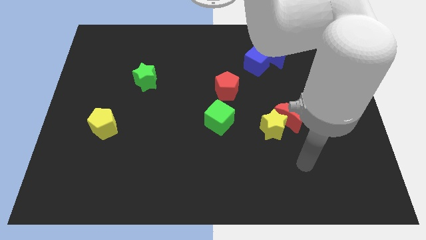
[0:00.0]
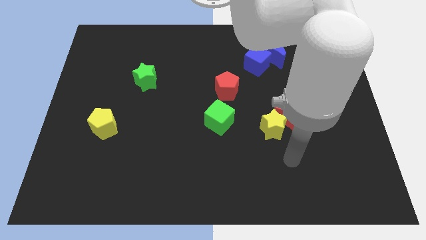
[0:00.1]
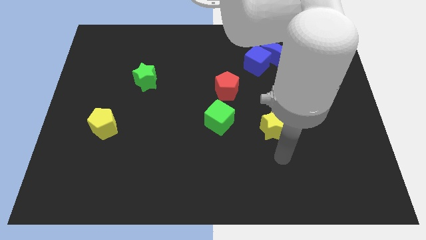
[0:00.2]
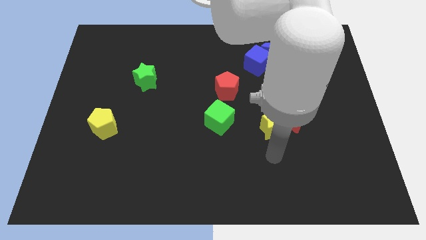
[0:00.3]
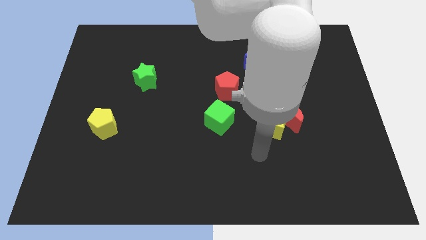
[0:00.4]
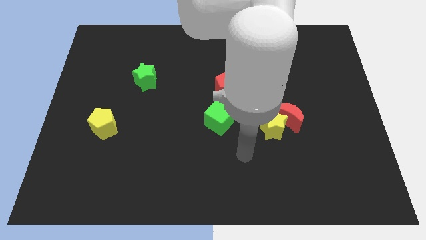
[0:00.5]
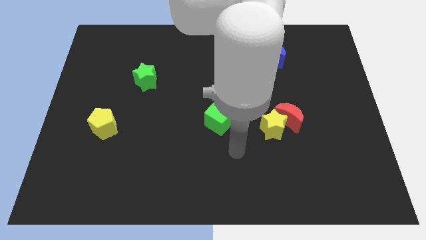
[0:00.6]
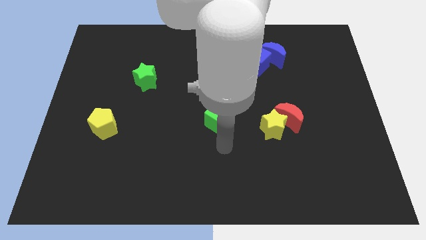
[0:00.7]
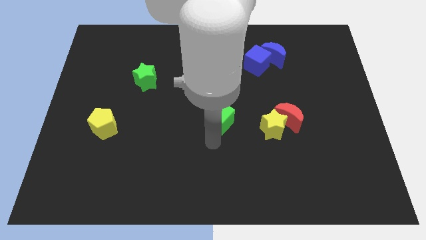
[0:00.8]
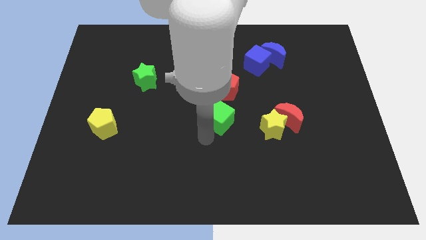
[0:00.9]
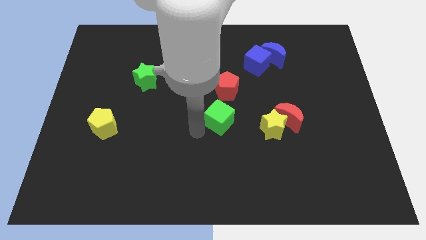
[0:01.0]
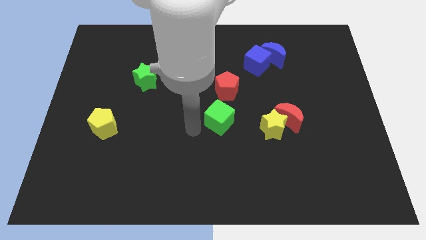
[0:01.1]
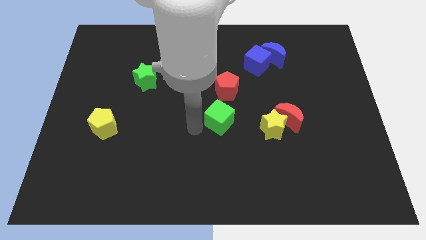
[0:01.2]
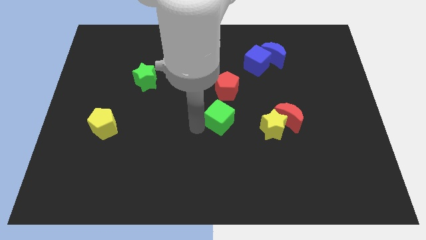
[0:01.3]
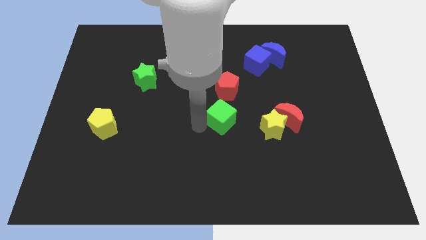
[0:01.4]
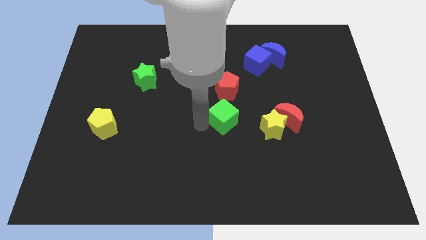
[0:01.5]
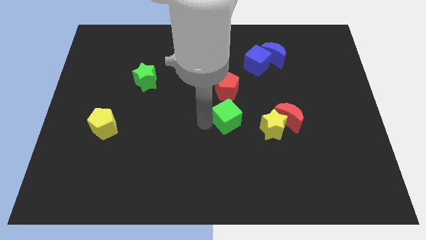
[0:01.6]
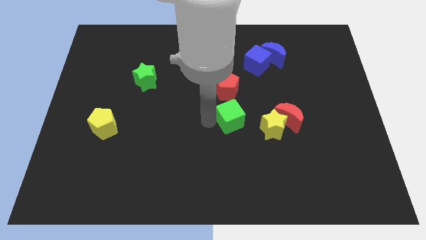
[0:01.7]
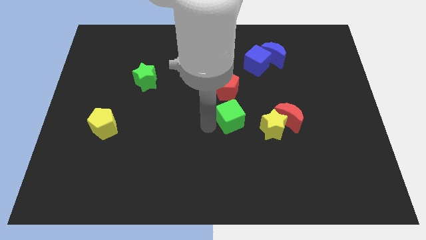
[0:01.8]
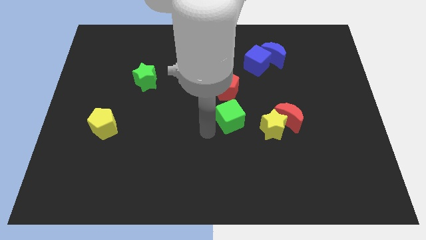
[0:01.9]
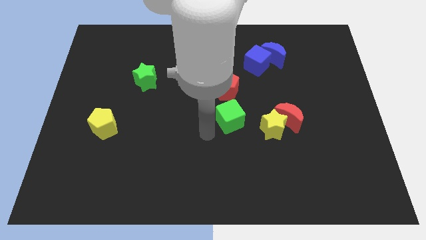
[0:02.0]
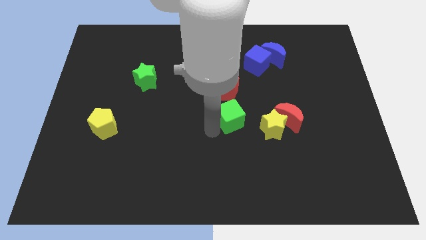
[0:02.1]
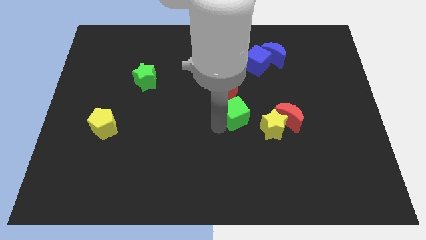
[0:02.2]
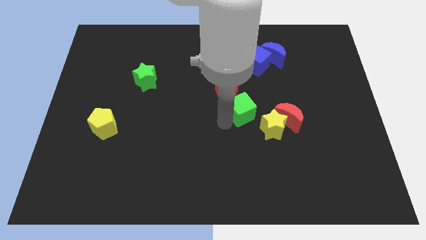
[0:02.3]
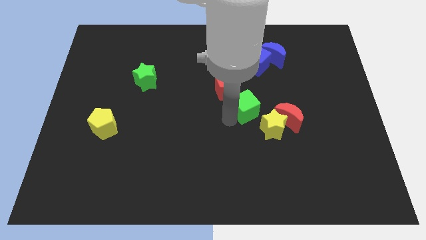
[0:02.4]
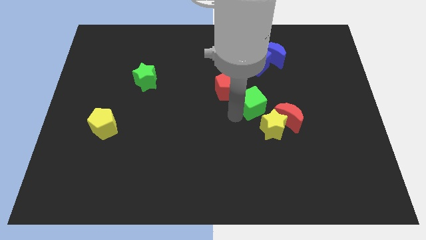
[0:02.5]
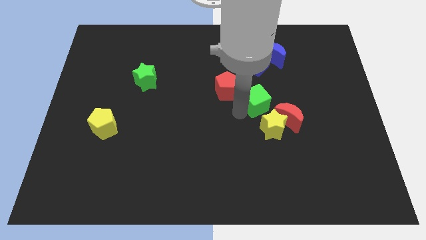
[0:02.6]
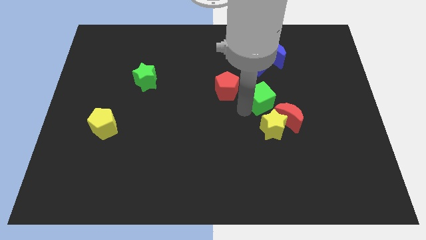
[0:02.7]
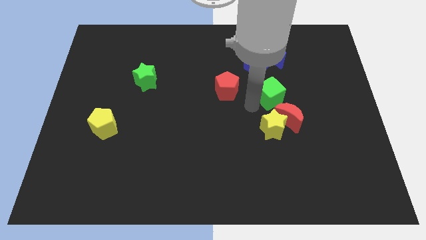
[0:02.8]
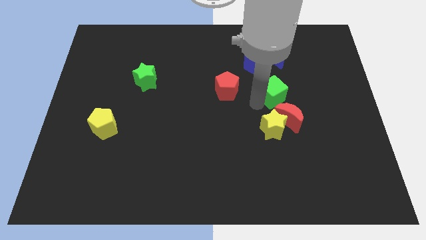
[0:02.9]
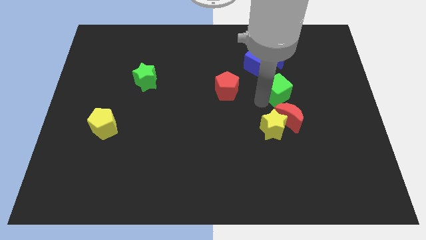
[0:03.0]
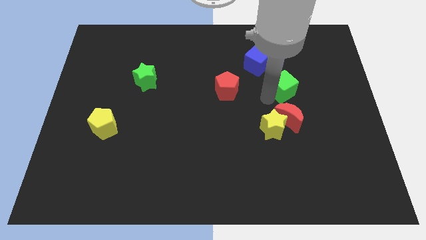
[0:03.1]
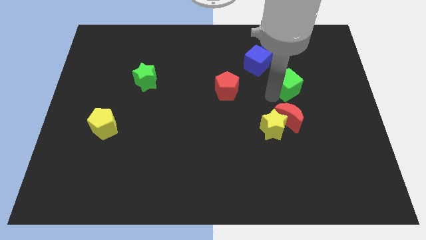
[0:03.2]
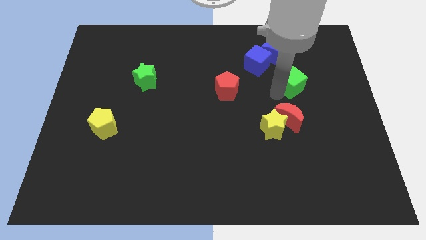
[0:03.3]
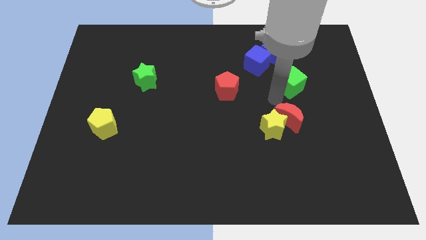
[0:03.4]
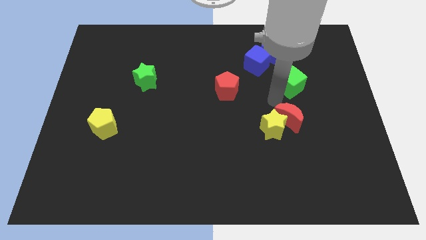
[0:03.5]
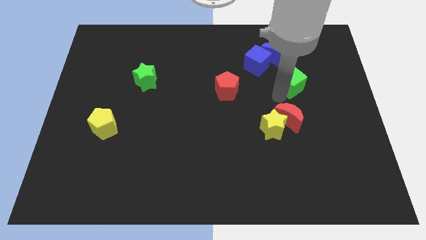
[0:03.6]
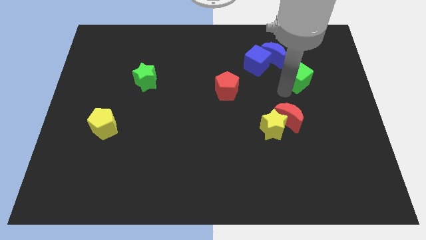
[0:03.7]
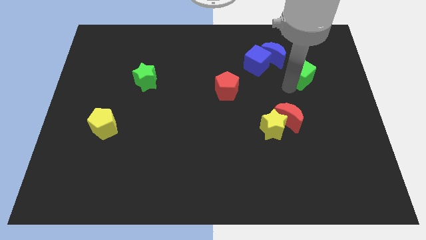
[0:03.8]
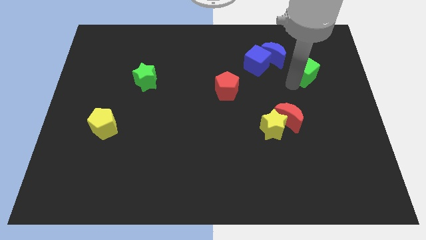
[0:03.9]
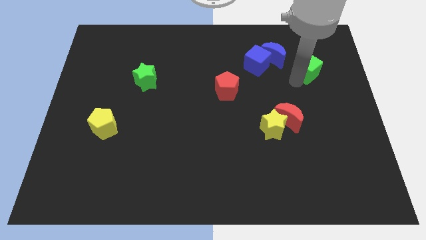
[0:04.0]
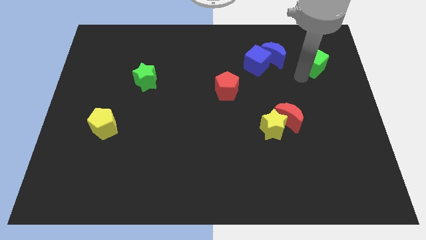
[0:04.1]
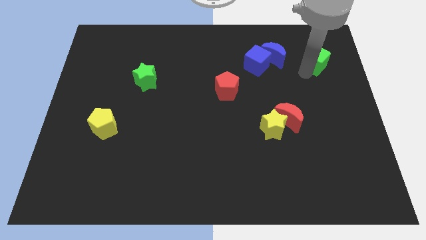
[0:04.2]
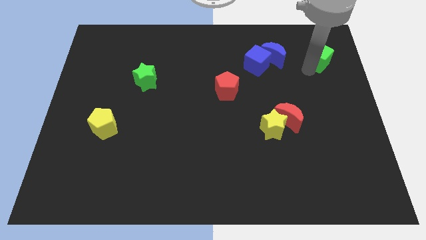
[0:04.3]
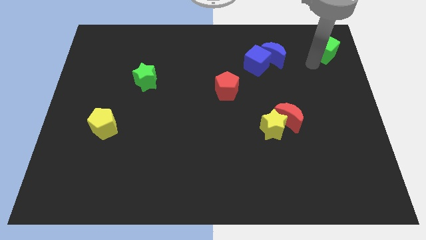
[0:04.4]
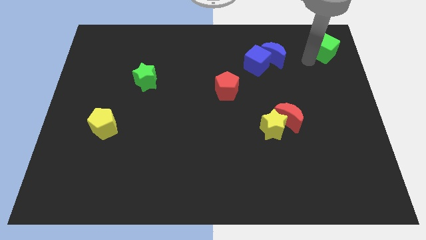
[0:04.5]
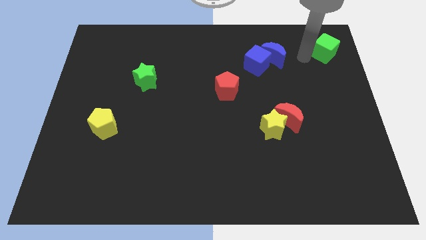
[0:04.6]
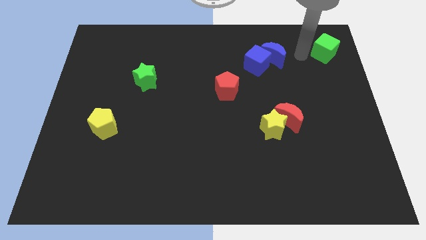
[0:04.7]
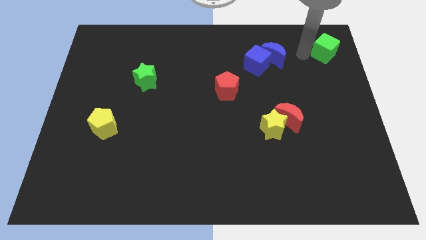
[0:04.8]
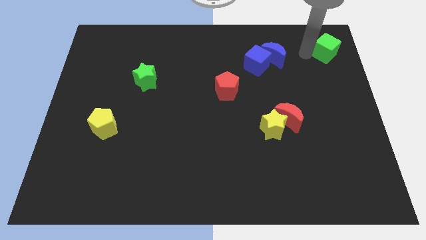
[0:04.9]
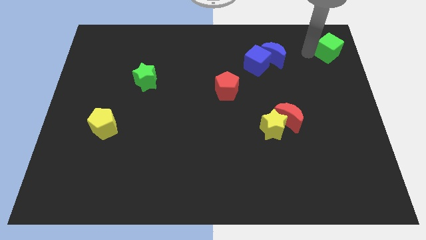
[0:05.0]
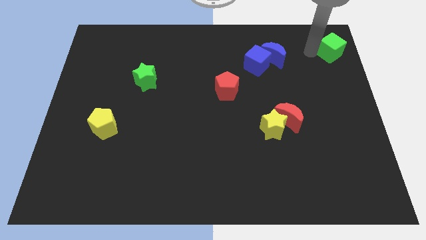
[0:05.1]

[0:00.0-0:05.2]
put the green cube to the top right
